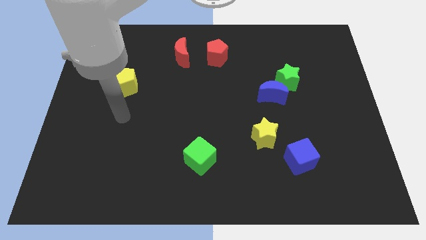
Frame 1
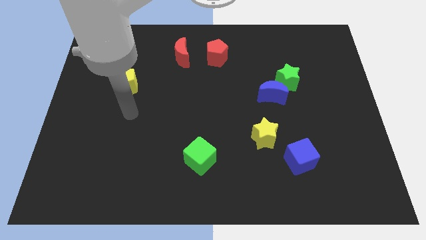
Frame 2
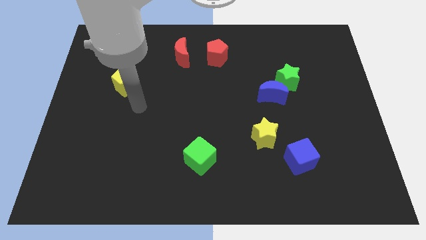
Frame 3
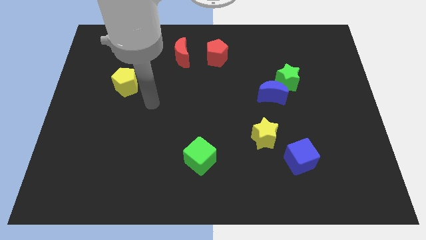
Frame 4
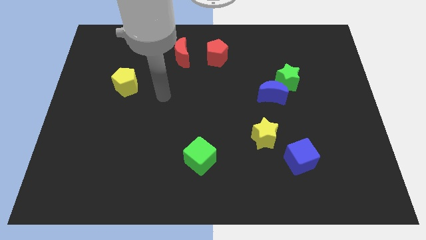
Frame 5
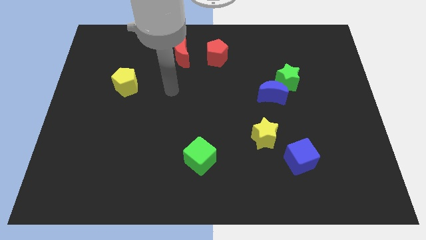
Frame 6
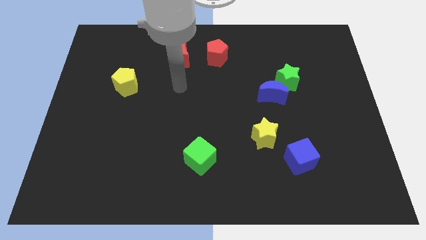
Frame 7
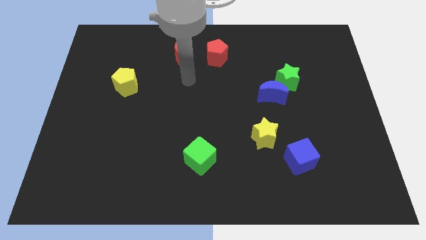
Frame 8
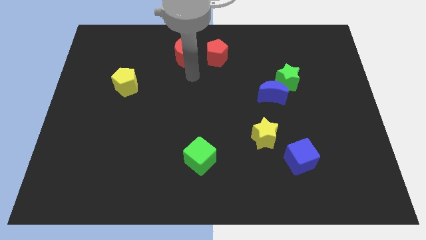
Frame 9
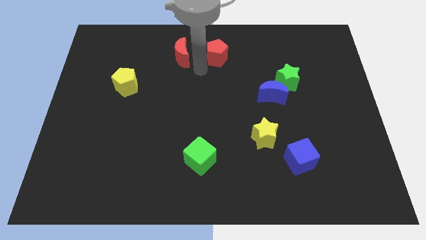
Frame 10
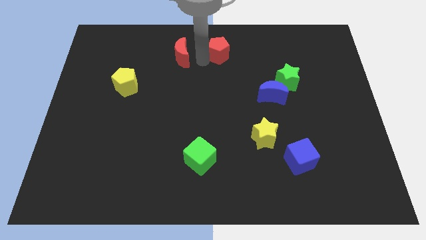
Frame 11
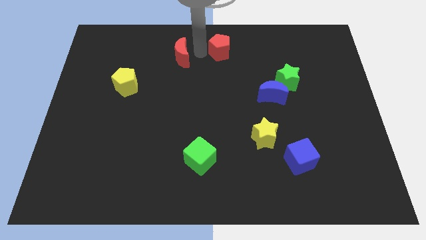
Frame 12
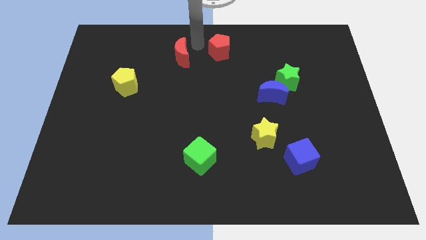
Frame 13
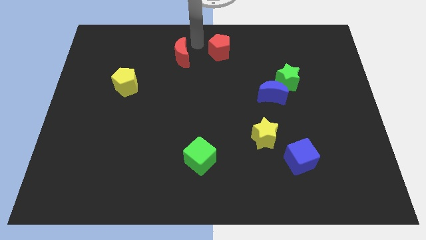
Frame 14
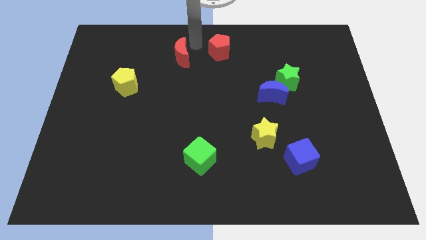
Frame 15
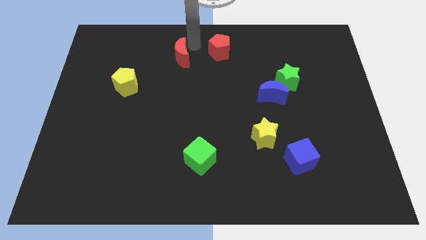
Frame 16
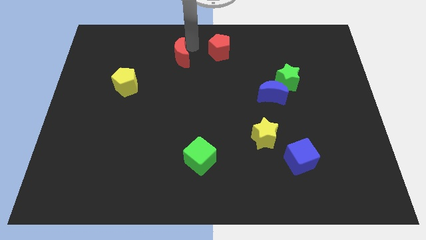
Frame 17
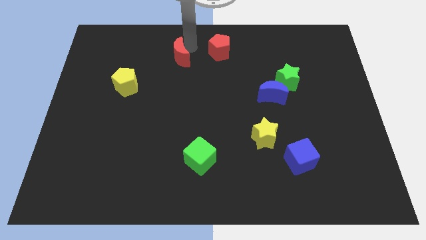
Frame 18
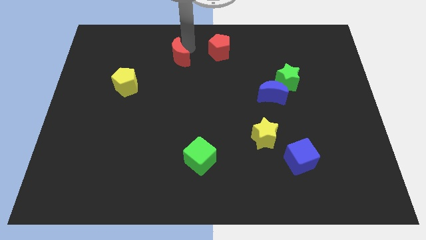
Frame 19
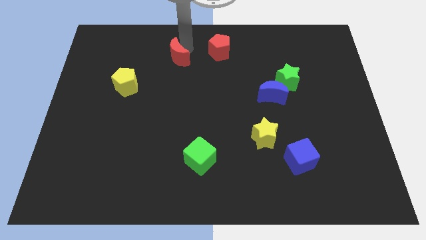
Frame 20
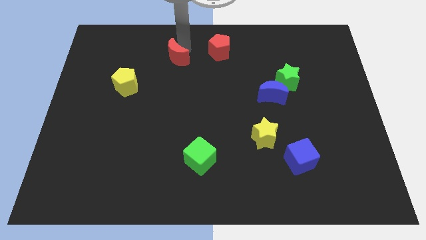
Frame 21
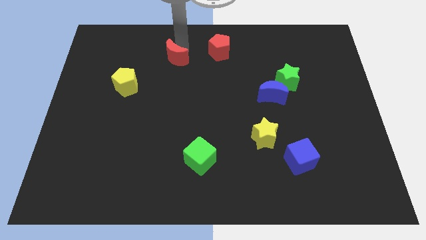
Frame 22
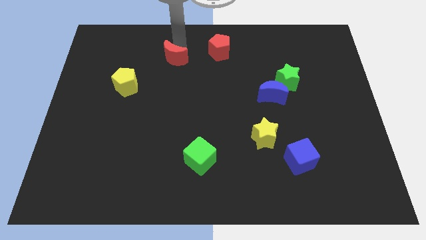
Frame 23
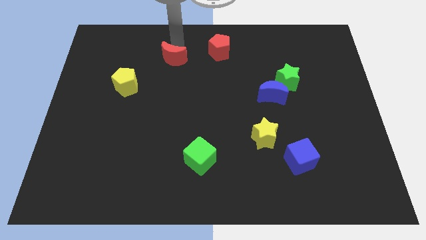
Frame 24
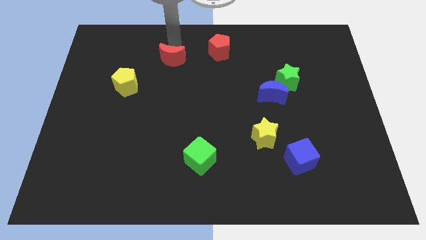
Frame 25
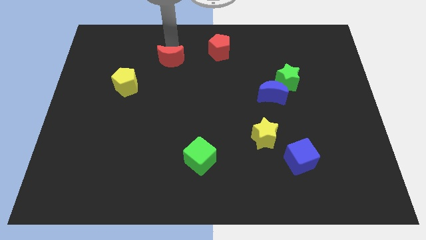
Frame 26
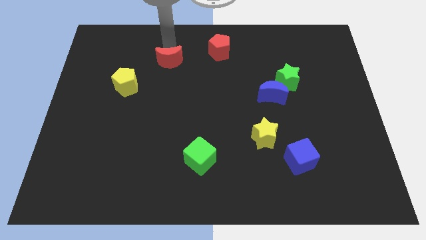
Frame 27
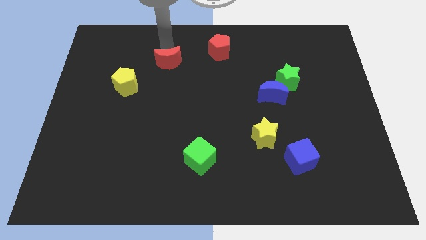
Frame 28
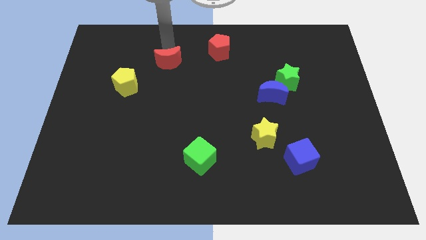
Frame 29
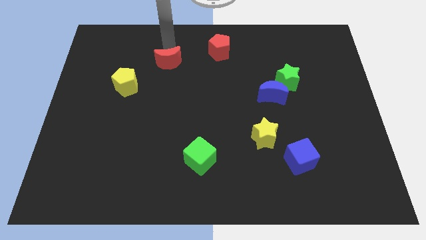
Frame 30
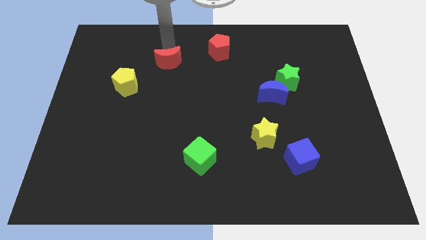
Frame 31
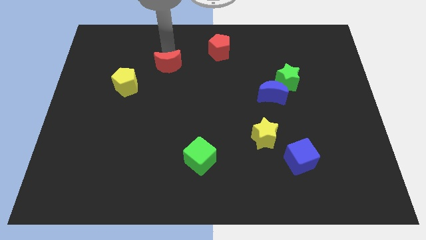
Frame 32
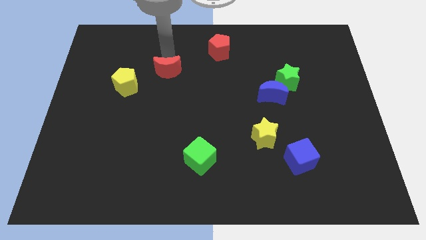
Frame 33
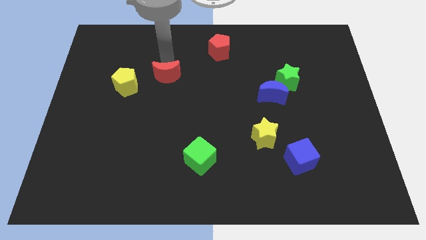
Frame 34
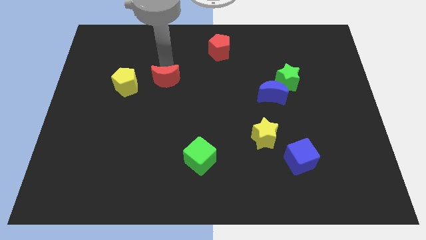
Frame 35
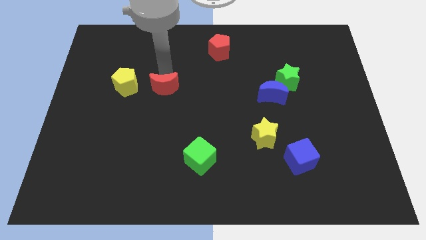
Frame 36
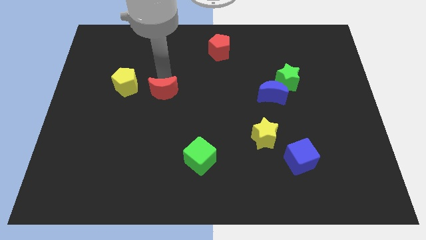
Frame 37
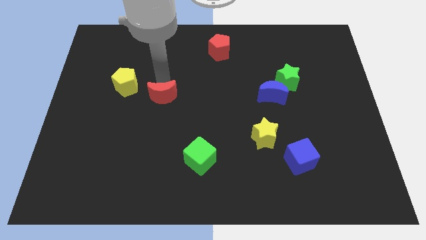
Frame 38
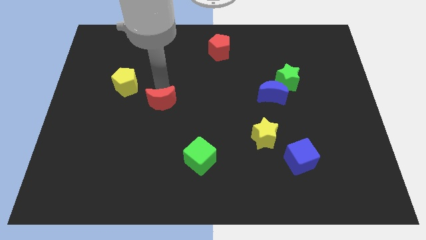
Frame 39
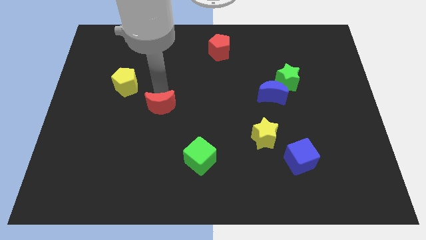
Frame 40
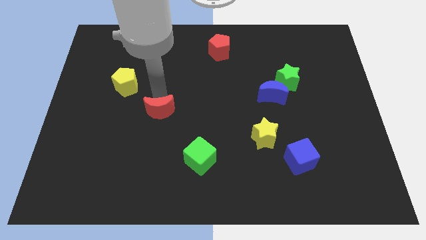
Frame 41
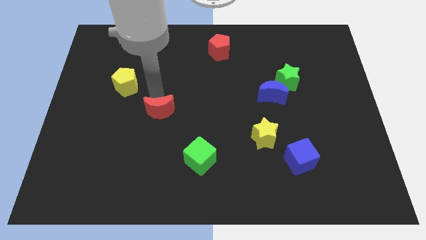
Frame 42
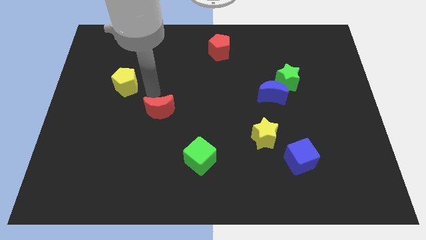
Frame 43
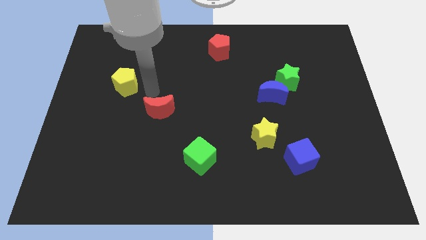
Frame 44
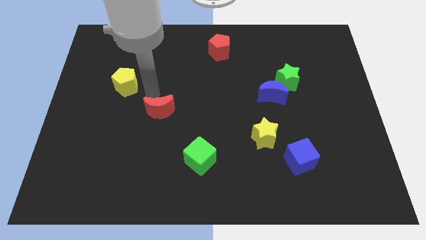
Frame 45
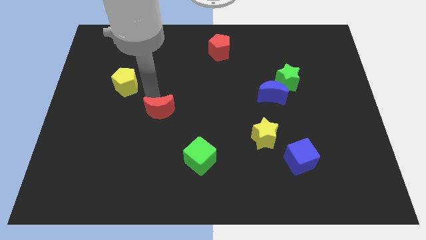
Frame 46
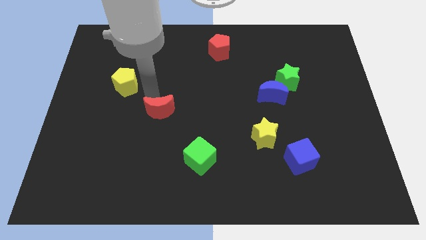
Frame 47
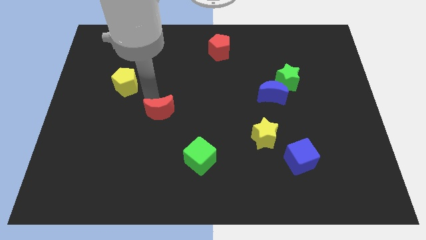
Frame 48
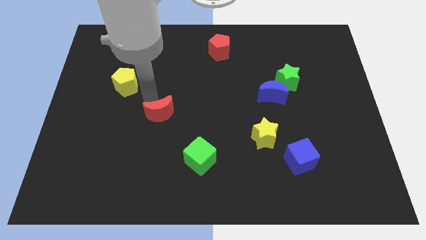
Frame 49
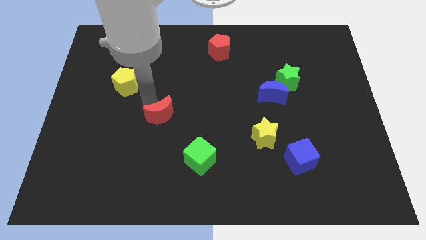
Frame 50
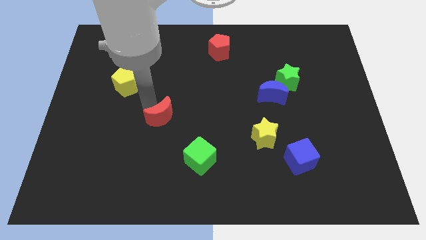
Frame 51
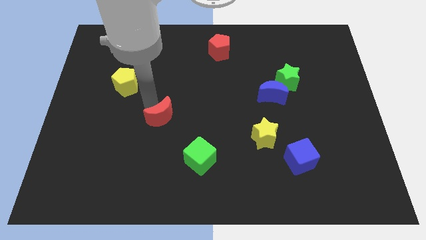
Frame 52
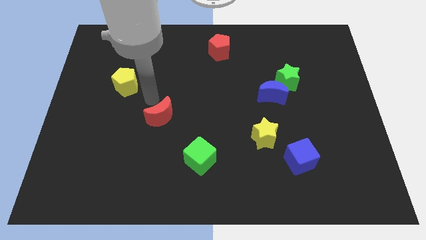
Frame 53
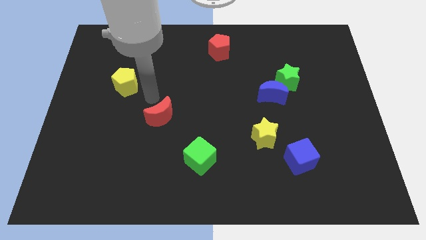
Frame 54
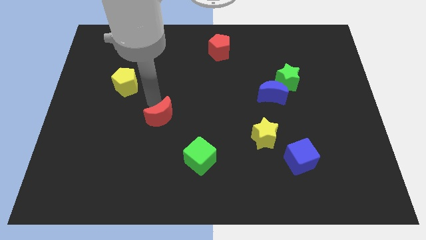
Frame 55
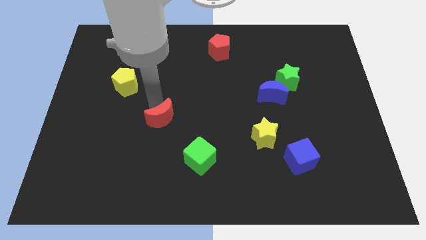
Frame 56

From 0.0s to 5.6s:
move the red moon down

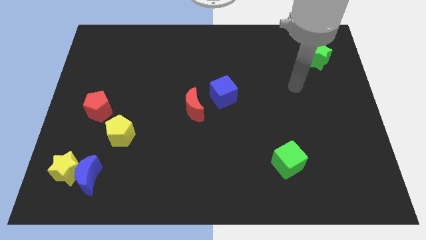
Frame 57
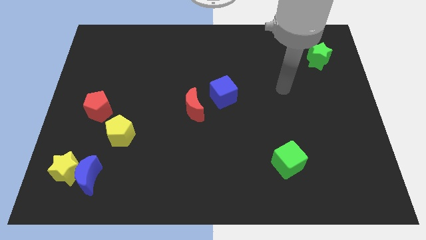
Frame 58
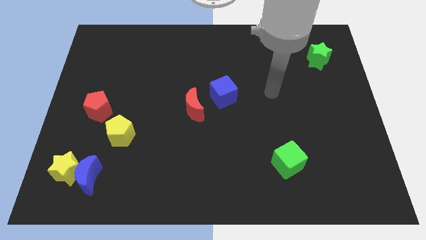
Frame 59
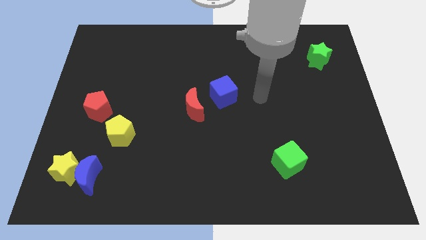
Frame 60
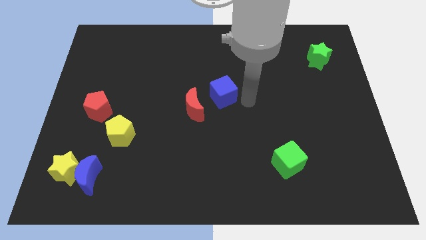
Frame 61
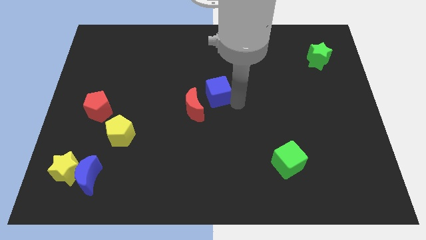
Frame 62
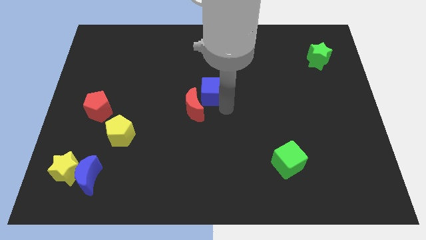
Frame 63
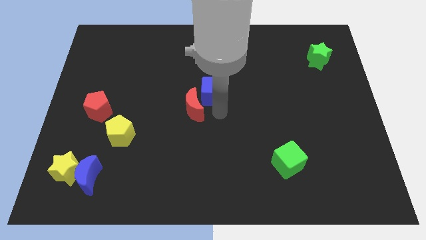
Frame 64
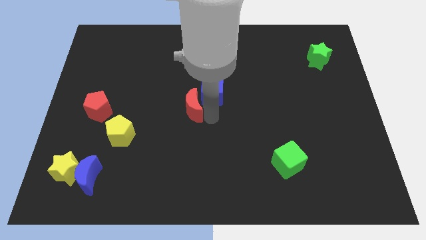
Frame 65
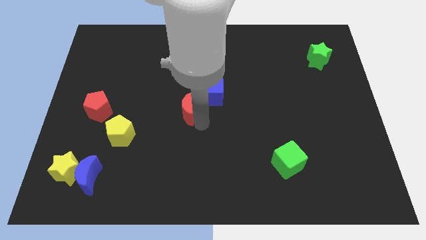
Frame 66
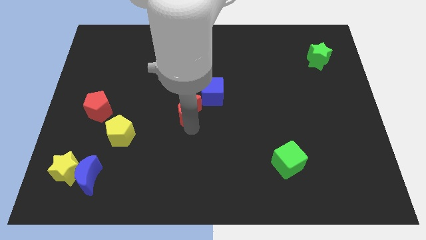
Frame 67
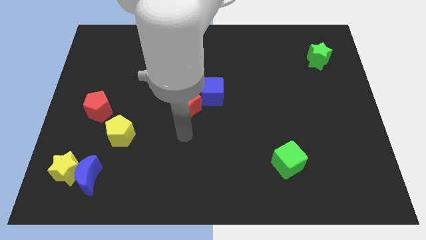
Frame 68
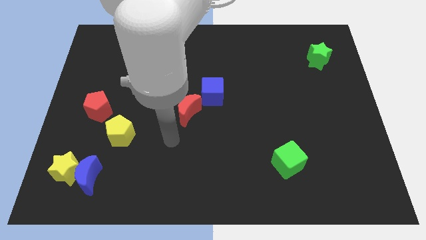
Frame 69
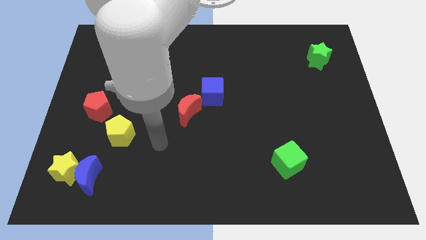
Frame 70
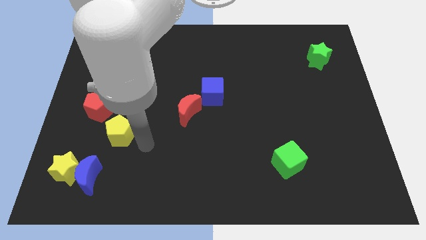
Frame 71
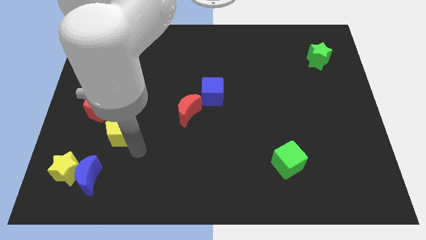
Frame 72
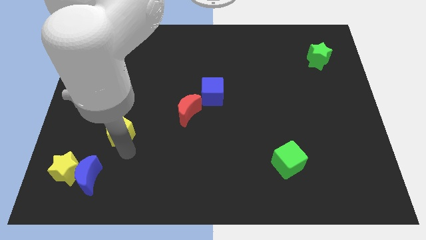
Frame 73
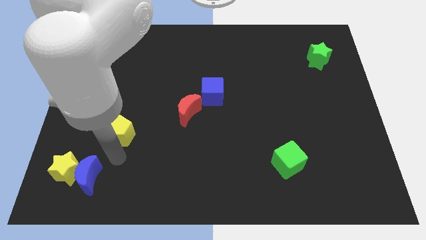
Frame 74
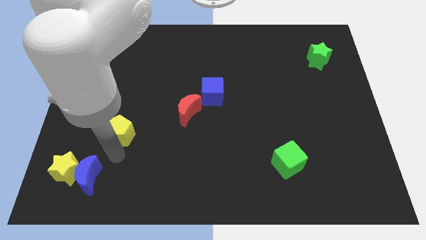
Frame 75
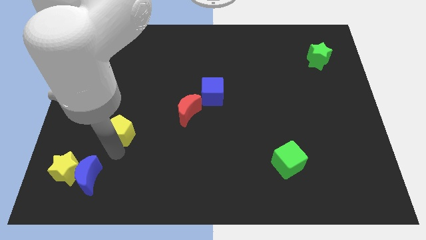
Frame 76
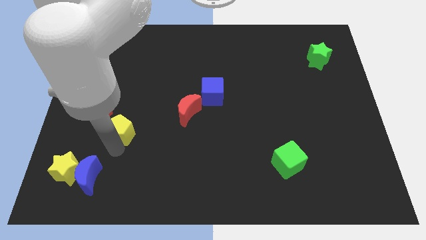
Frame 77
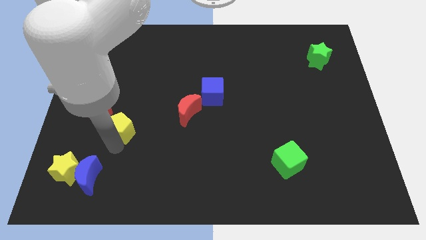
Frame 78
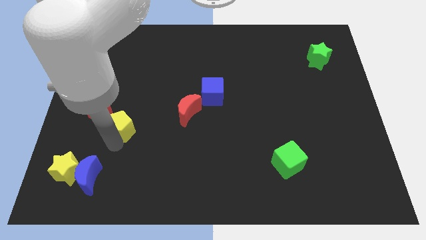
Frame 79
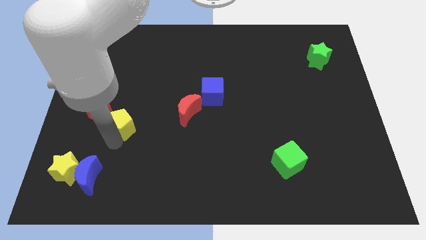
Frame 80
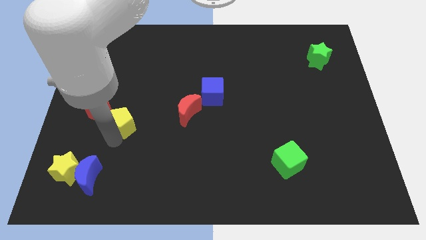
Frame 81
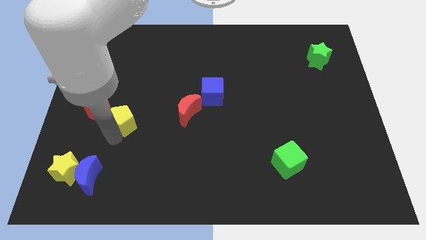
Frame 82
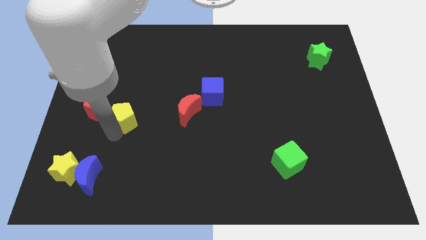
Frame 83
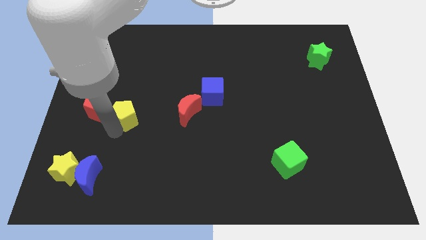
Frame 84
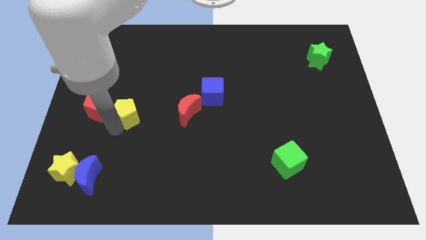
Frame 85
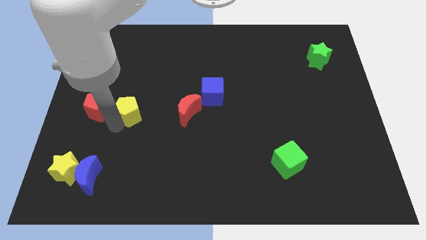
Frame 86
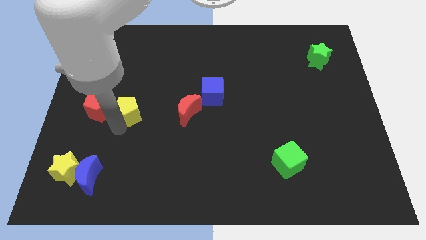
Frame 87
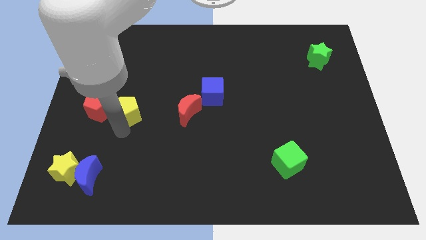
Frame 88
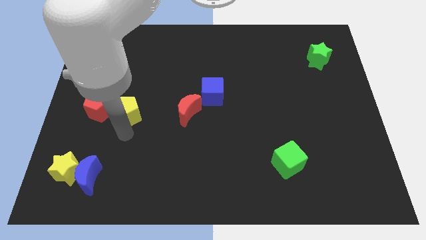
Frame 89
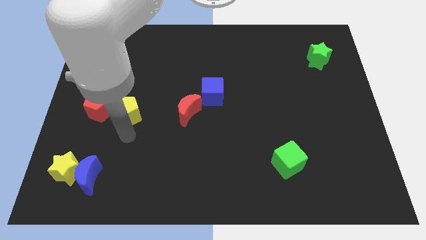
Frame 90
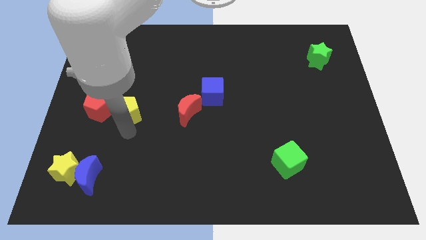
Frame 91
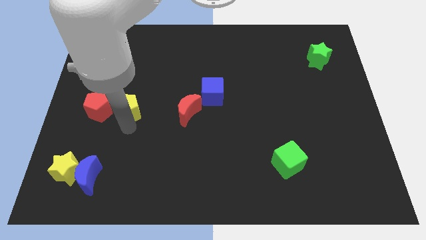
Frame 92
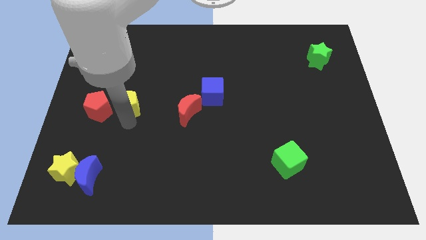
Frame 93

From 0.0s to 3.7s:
push the yellow pentagon a bit up
